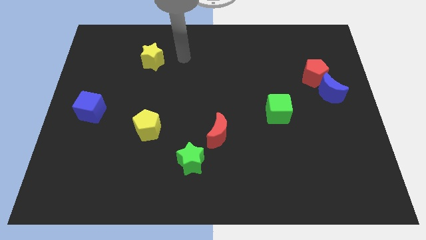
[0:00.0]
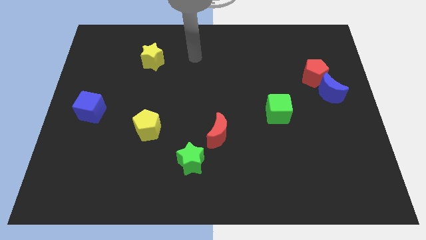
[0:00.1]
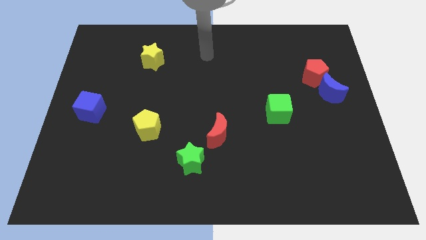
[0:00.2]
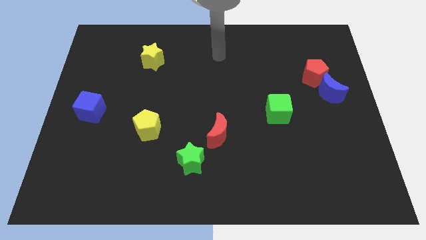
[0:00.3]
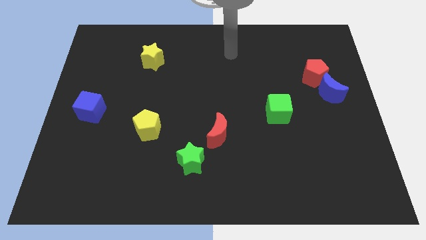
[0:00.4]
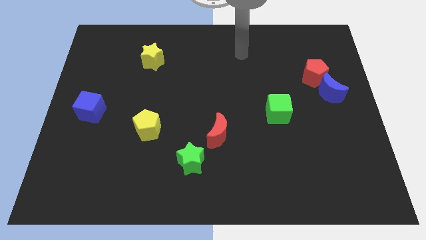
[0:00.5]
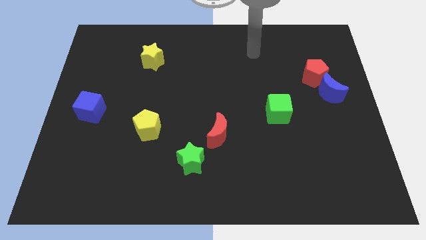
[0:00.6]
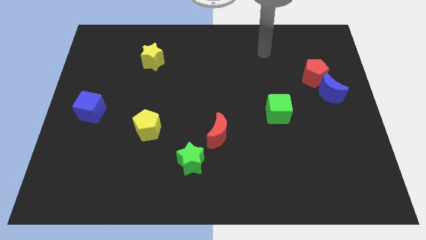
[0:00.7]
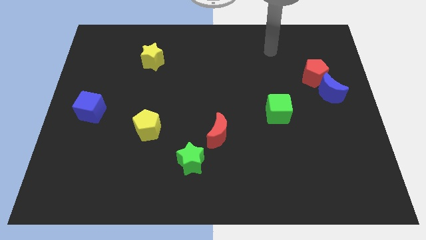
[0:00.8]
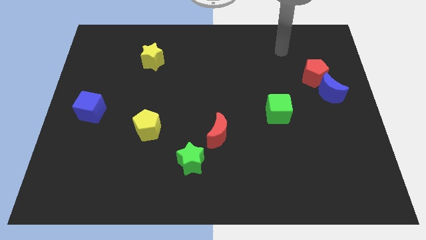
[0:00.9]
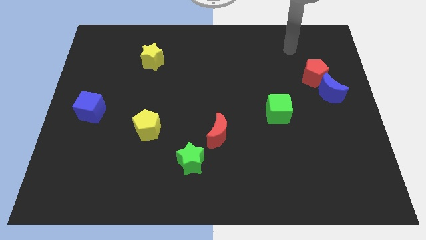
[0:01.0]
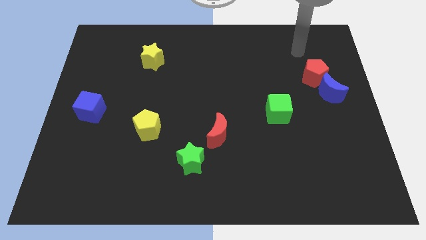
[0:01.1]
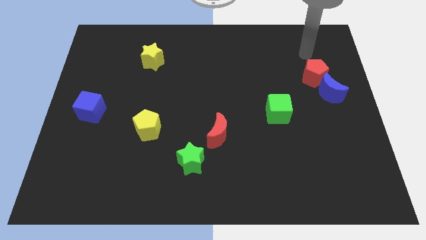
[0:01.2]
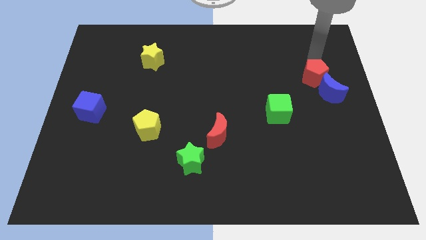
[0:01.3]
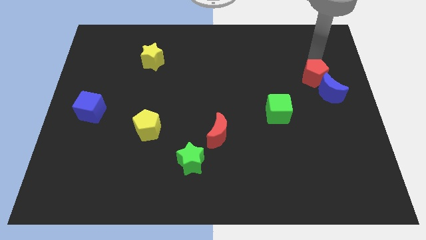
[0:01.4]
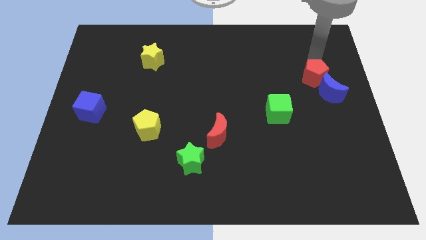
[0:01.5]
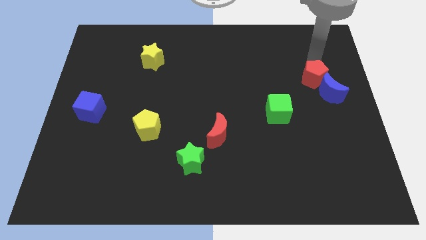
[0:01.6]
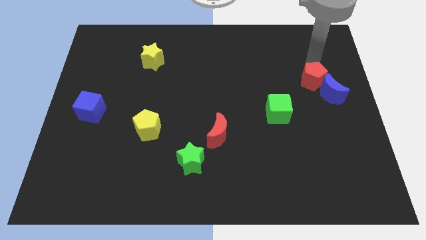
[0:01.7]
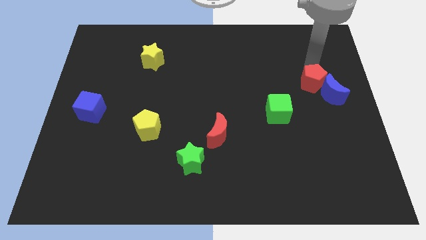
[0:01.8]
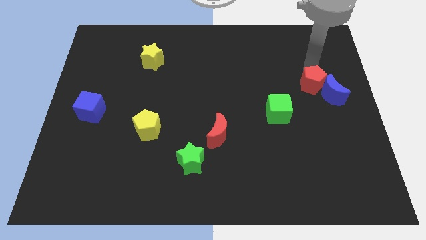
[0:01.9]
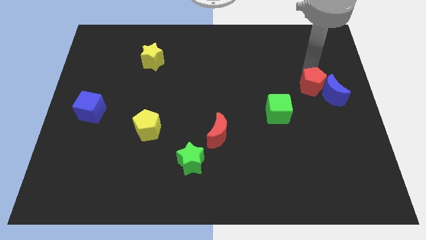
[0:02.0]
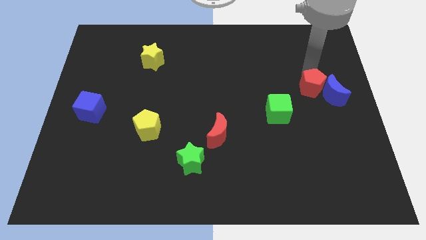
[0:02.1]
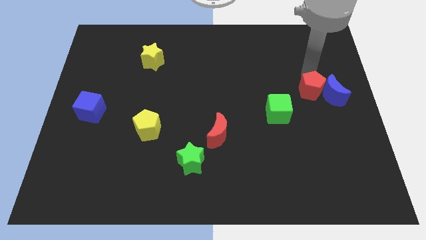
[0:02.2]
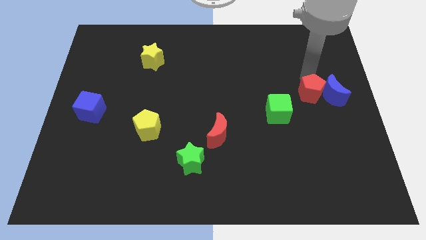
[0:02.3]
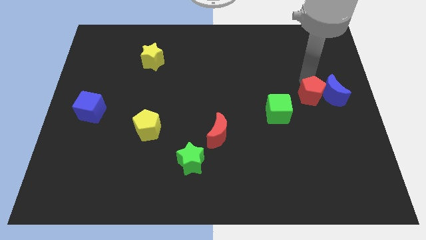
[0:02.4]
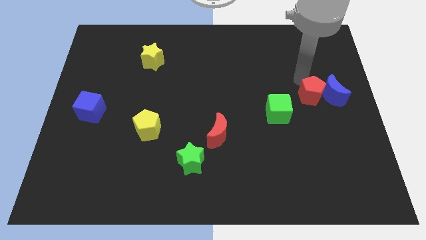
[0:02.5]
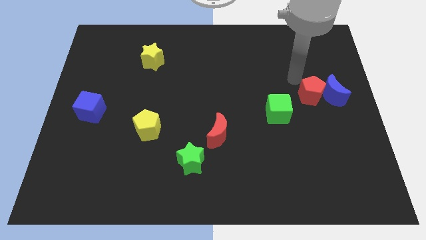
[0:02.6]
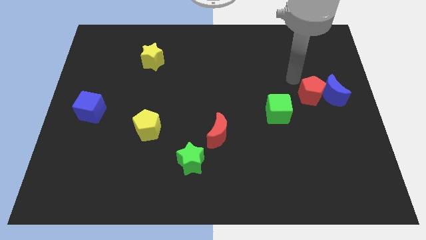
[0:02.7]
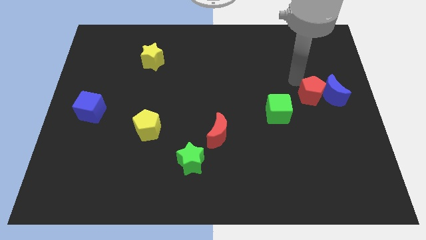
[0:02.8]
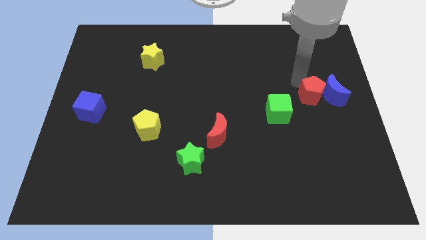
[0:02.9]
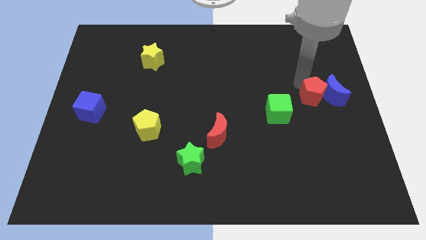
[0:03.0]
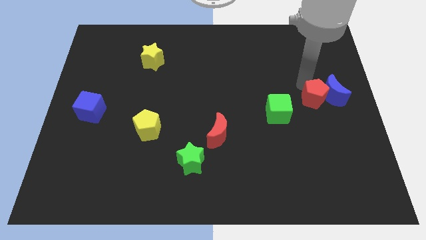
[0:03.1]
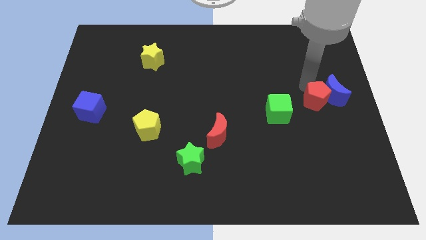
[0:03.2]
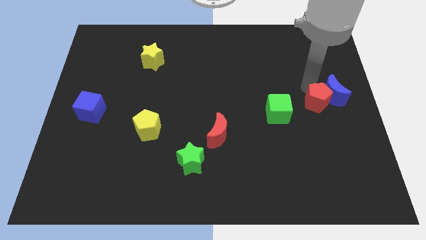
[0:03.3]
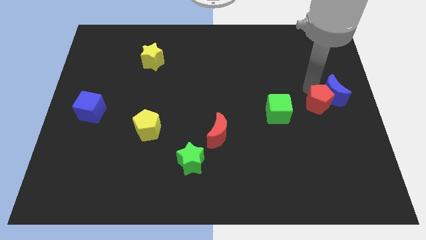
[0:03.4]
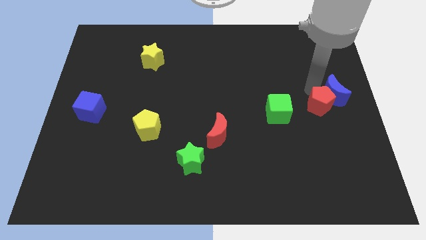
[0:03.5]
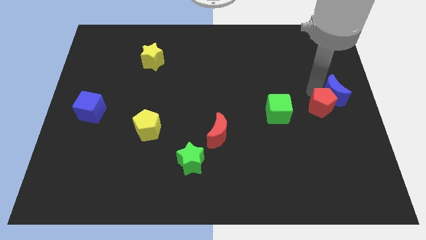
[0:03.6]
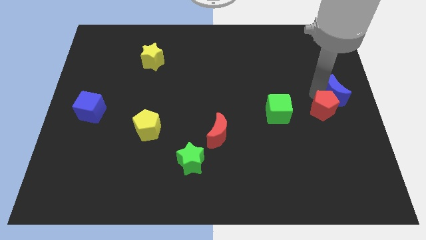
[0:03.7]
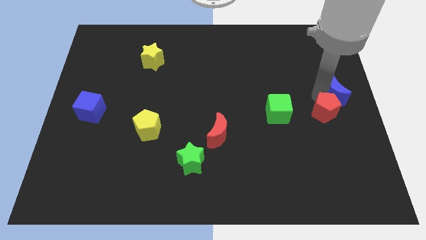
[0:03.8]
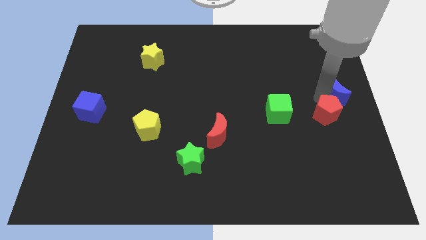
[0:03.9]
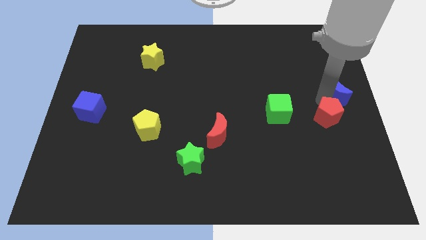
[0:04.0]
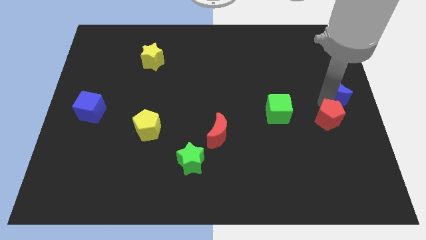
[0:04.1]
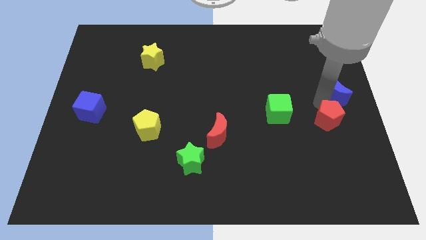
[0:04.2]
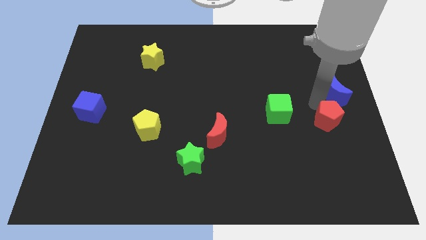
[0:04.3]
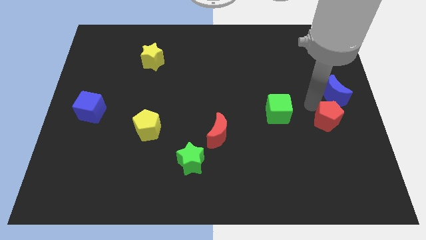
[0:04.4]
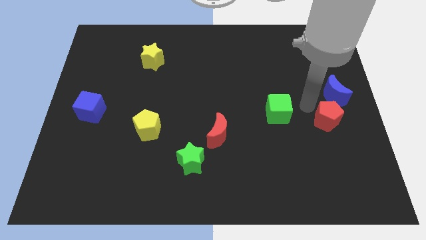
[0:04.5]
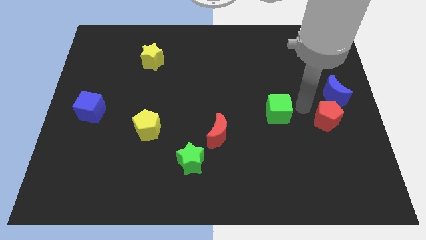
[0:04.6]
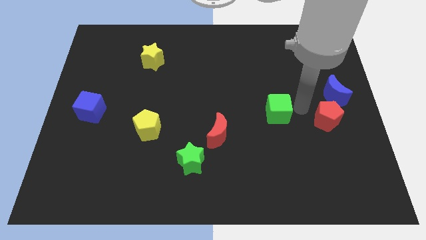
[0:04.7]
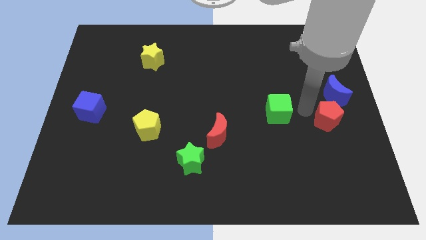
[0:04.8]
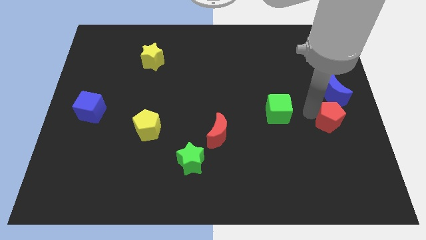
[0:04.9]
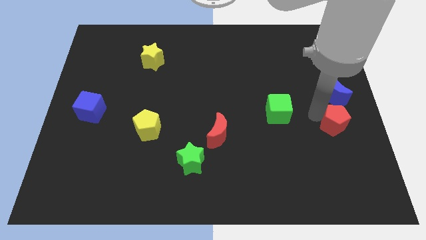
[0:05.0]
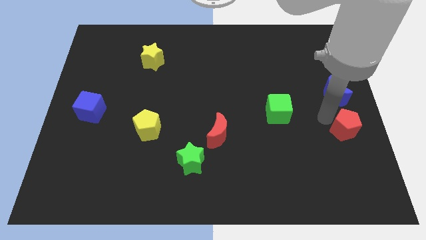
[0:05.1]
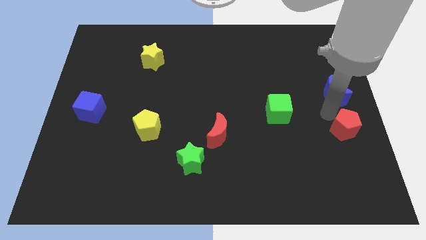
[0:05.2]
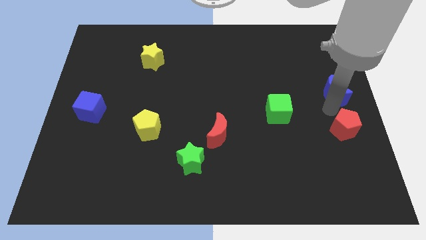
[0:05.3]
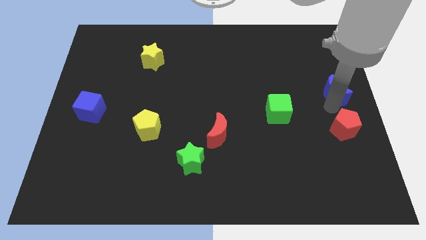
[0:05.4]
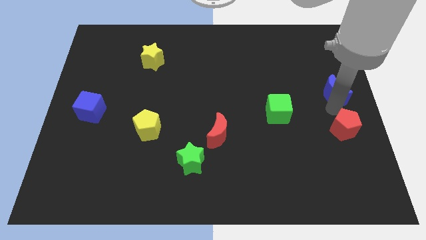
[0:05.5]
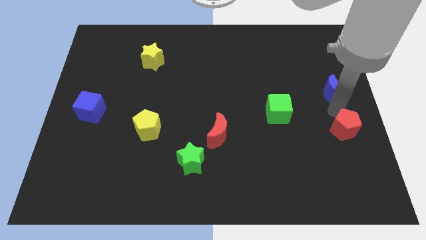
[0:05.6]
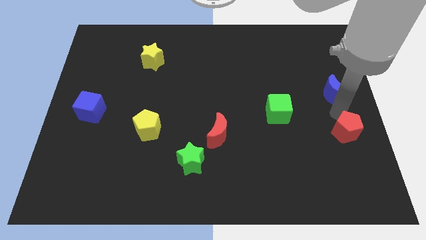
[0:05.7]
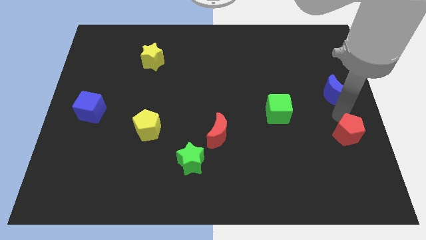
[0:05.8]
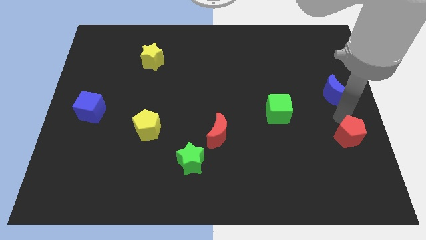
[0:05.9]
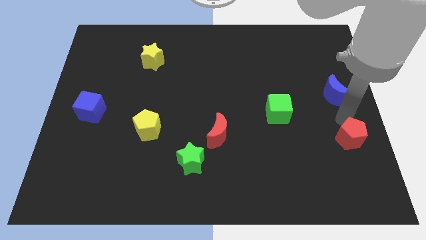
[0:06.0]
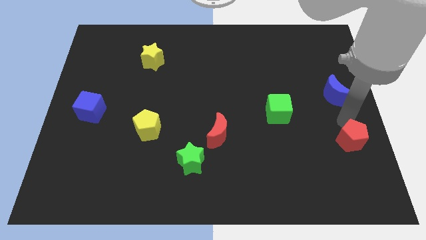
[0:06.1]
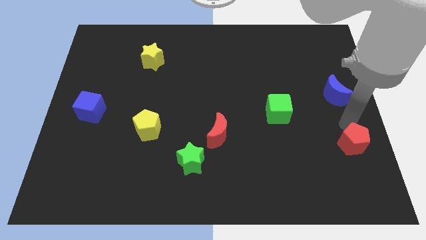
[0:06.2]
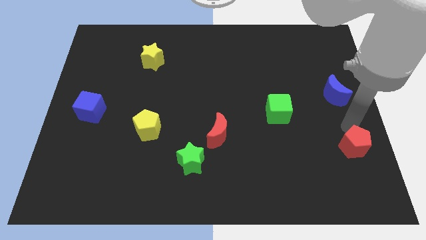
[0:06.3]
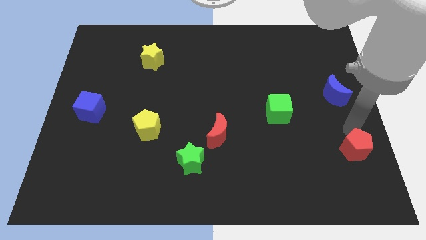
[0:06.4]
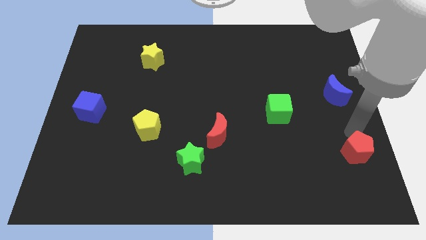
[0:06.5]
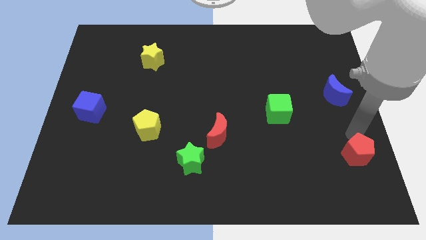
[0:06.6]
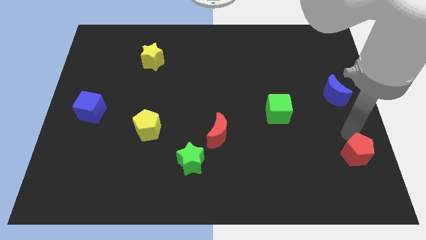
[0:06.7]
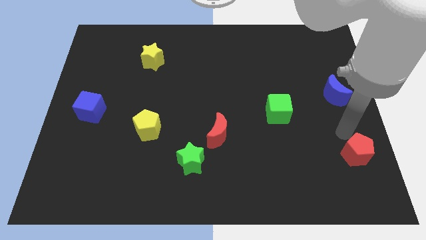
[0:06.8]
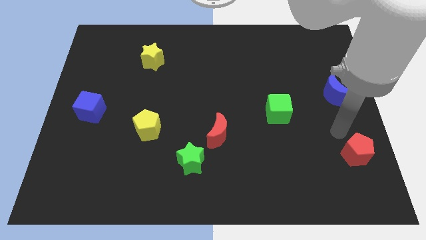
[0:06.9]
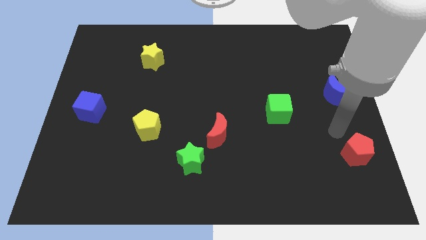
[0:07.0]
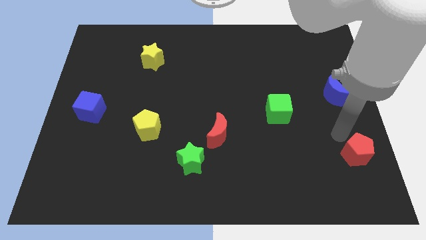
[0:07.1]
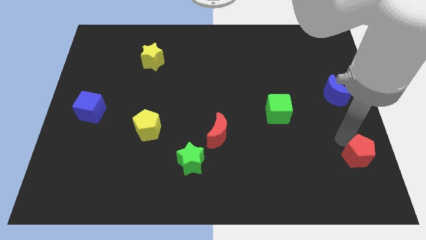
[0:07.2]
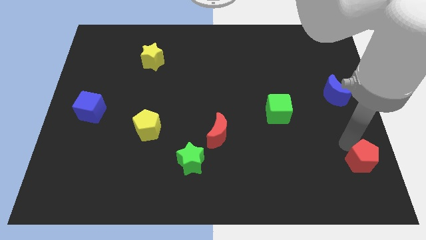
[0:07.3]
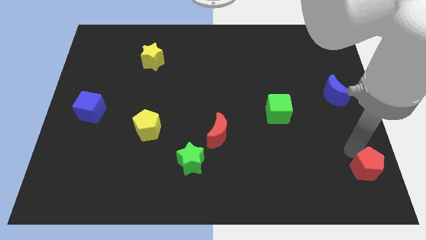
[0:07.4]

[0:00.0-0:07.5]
slide the red pentagon to the bottom right of the board
